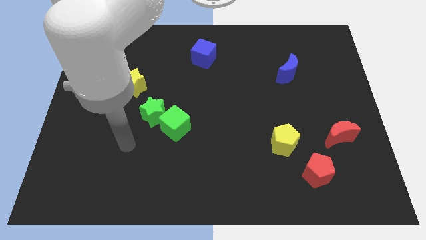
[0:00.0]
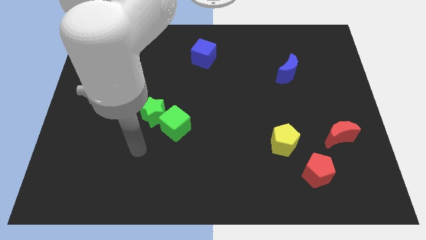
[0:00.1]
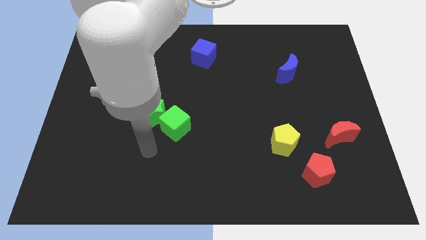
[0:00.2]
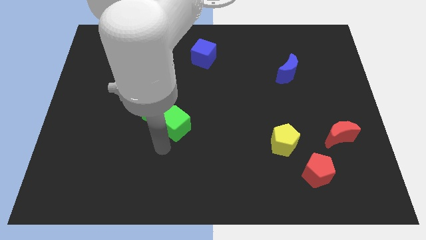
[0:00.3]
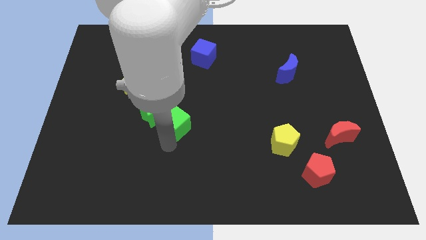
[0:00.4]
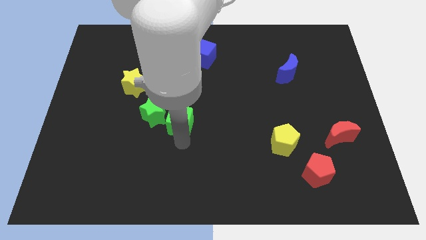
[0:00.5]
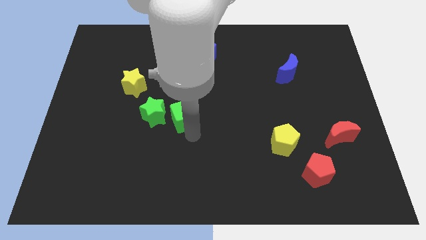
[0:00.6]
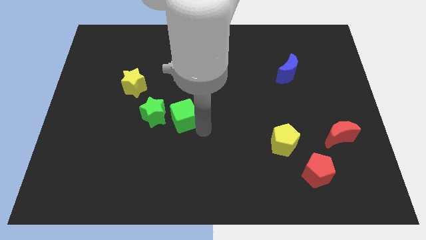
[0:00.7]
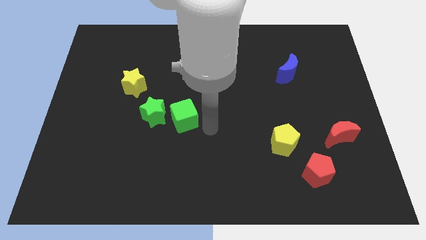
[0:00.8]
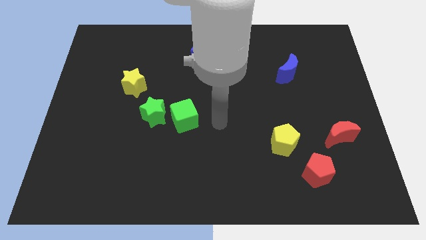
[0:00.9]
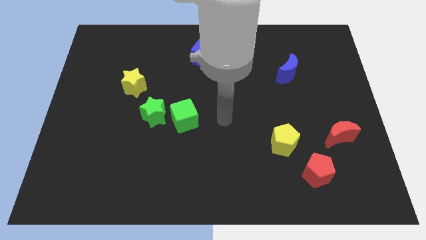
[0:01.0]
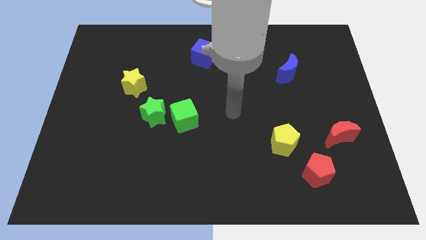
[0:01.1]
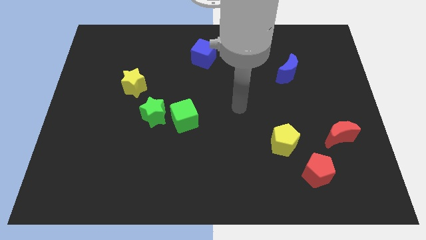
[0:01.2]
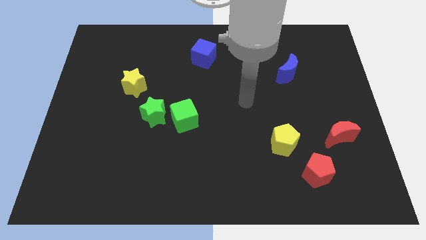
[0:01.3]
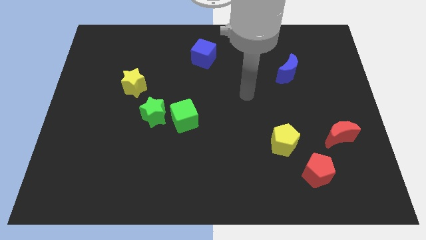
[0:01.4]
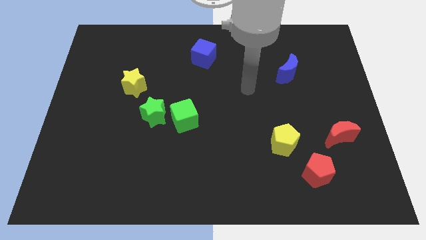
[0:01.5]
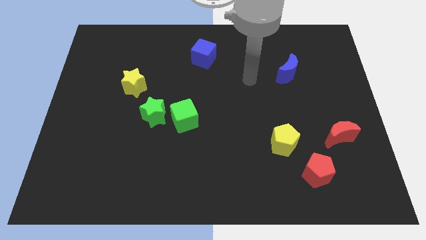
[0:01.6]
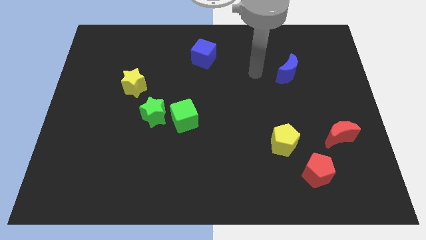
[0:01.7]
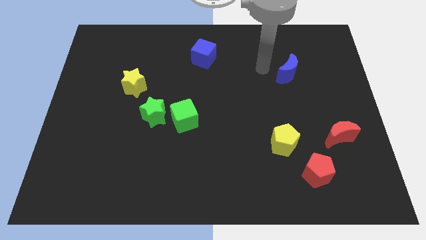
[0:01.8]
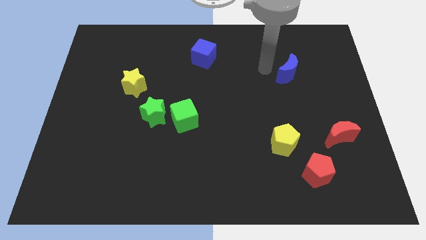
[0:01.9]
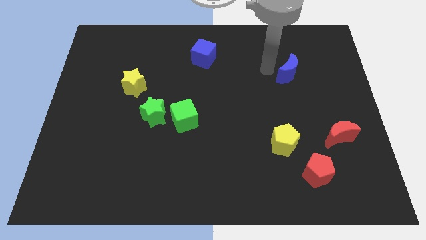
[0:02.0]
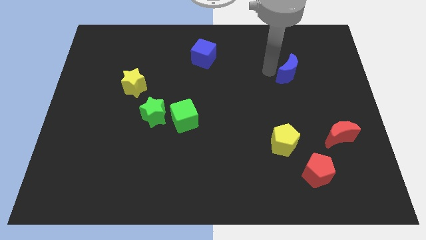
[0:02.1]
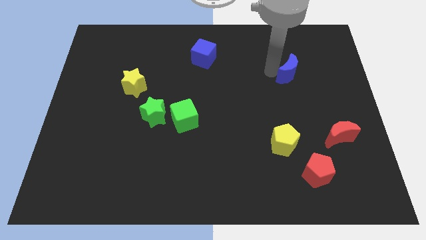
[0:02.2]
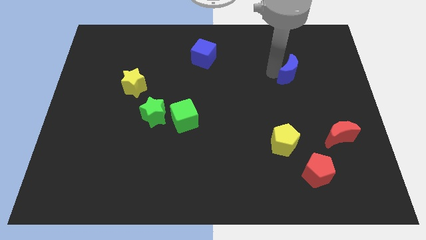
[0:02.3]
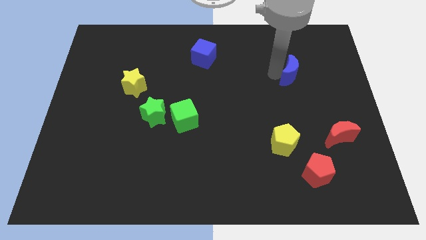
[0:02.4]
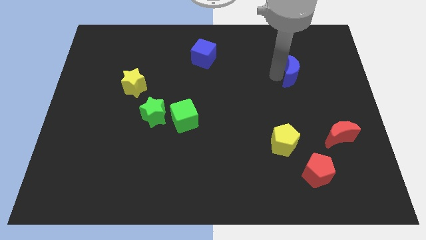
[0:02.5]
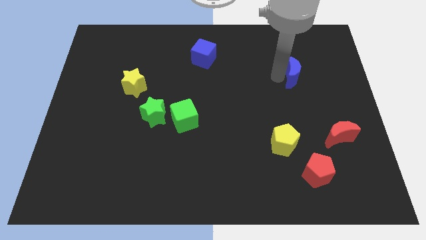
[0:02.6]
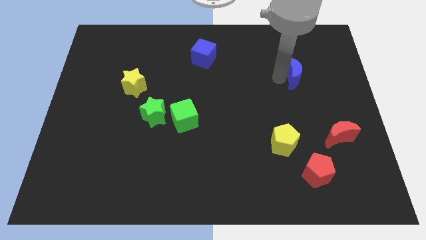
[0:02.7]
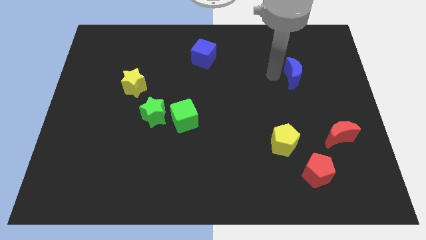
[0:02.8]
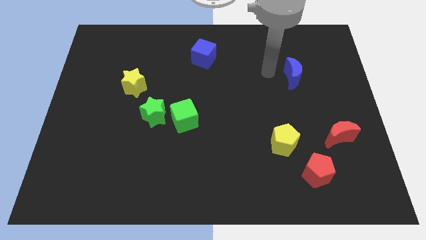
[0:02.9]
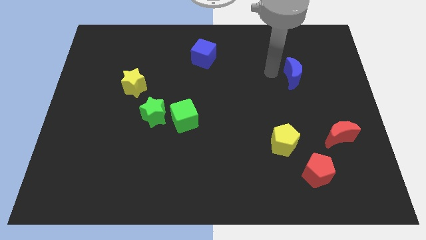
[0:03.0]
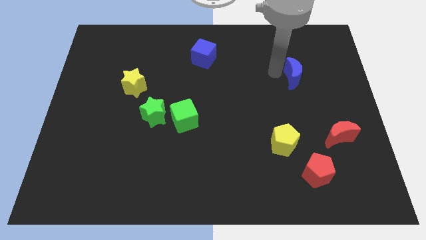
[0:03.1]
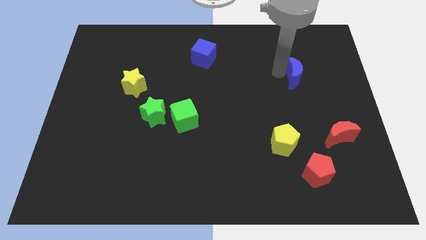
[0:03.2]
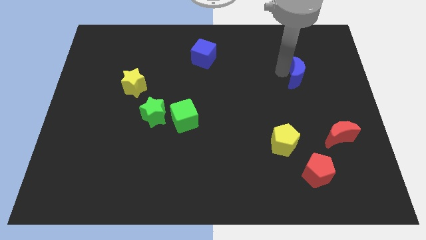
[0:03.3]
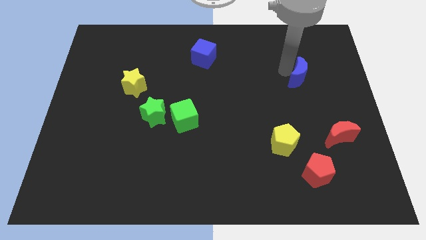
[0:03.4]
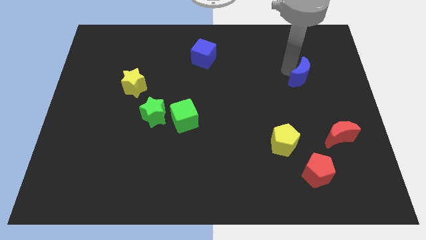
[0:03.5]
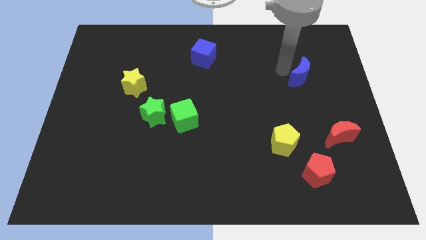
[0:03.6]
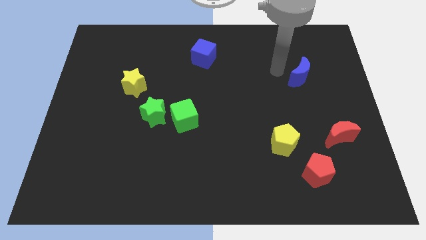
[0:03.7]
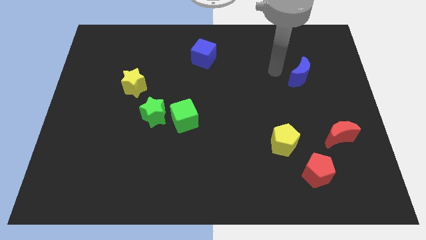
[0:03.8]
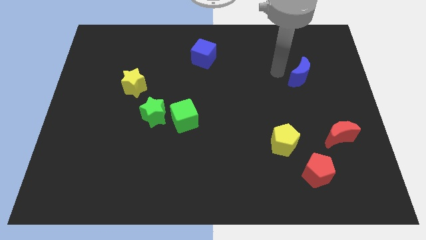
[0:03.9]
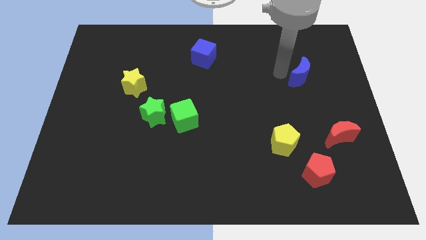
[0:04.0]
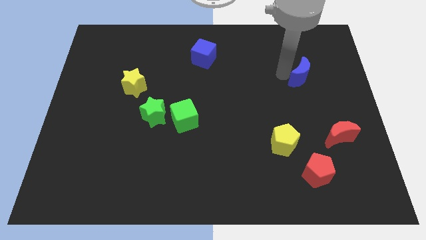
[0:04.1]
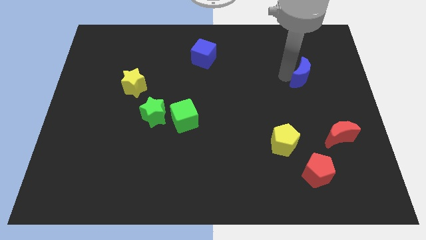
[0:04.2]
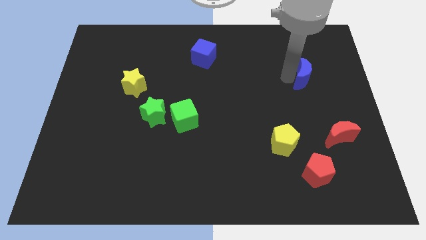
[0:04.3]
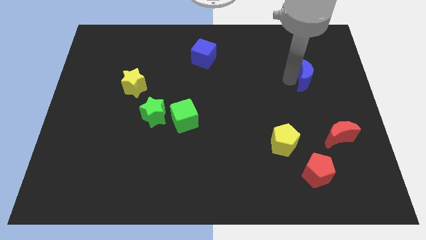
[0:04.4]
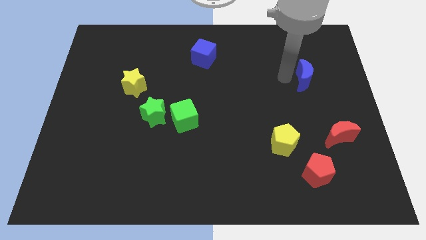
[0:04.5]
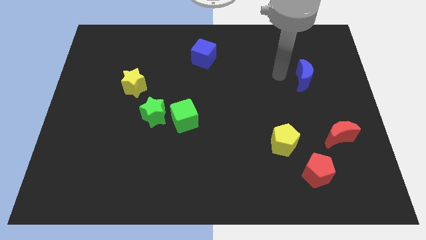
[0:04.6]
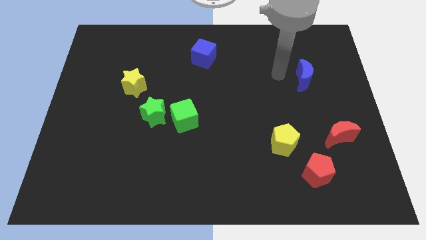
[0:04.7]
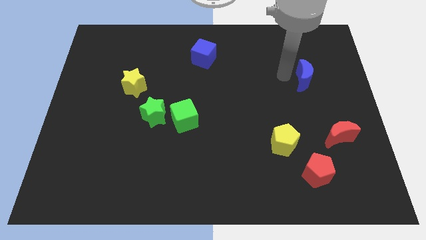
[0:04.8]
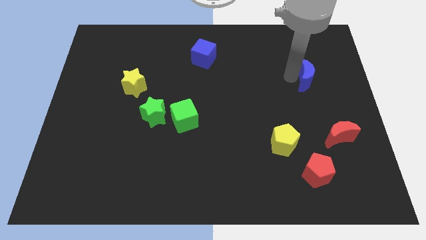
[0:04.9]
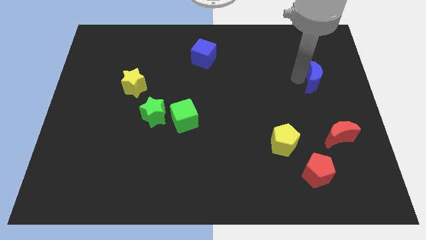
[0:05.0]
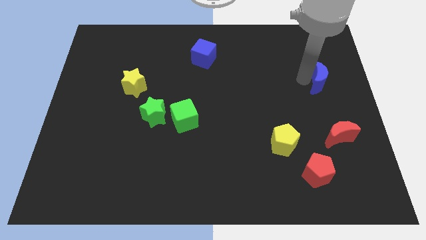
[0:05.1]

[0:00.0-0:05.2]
put the blue moon to the right side

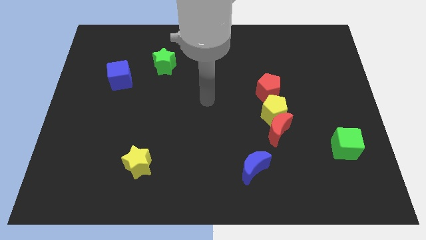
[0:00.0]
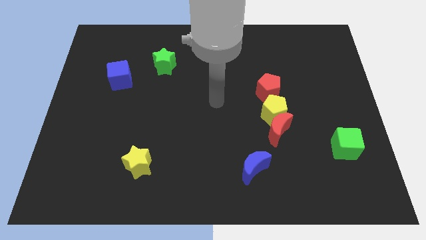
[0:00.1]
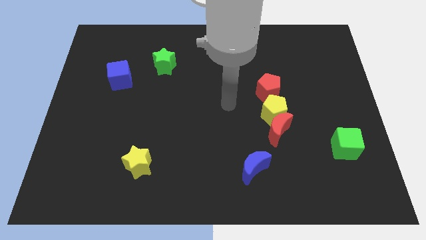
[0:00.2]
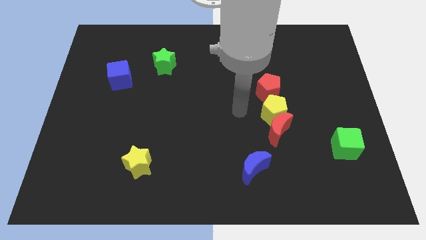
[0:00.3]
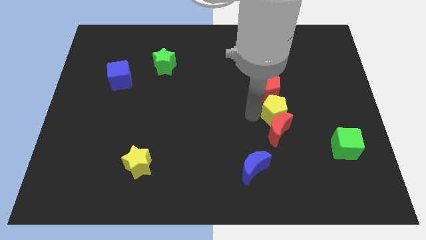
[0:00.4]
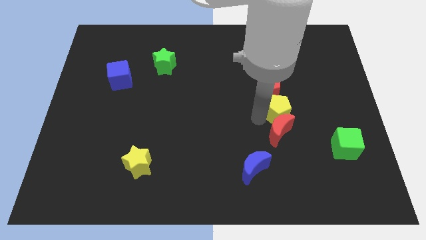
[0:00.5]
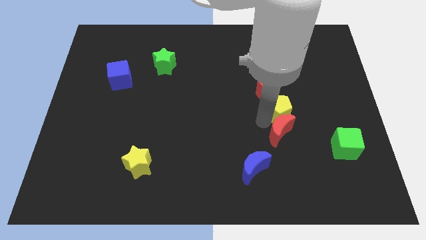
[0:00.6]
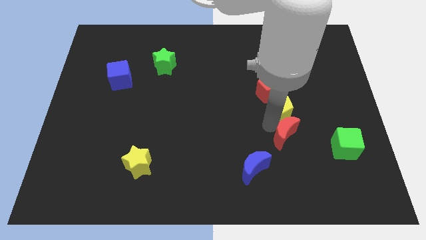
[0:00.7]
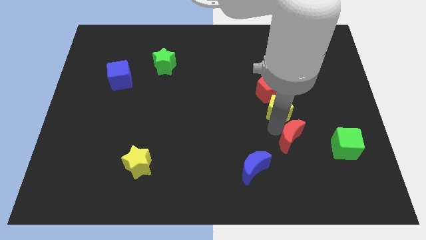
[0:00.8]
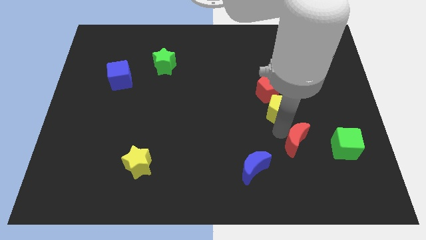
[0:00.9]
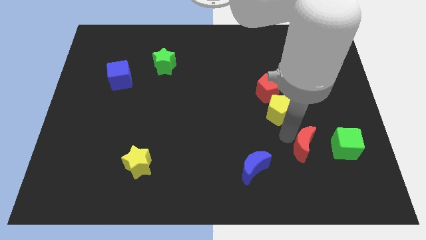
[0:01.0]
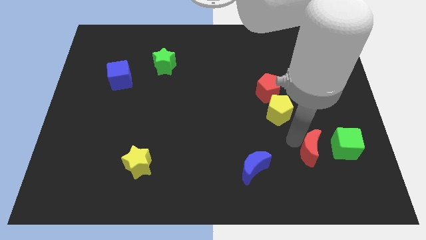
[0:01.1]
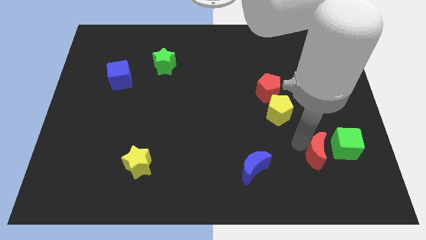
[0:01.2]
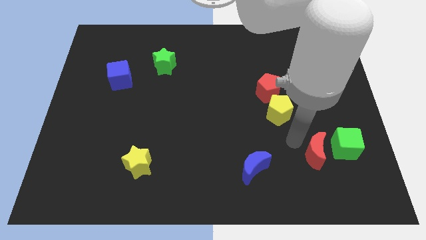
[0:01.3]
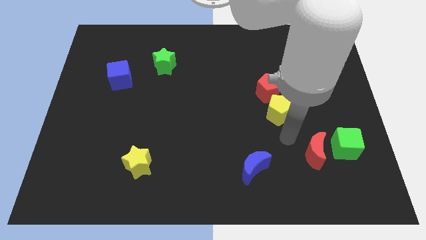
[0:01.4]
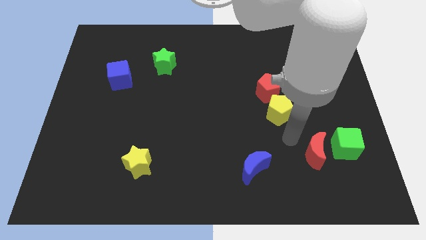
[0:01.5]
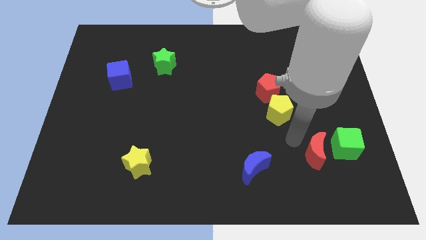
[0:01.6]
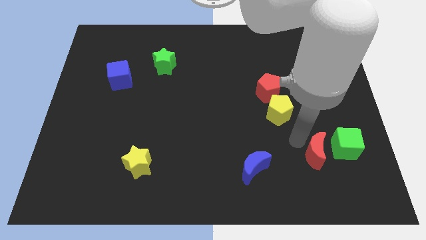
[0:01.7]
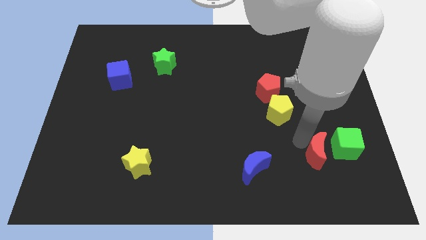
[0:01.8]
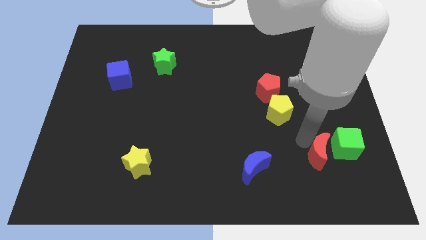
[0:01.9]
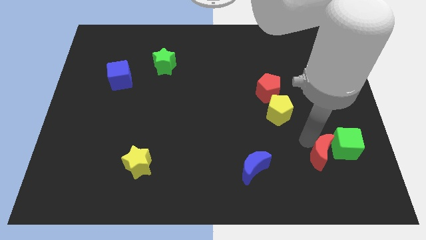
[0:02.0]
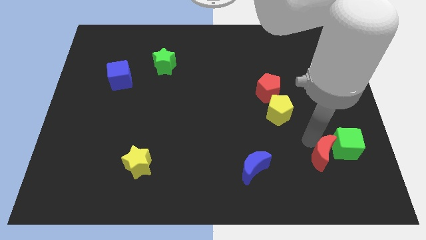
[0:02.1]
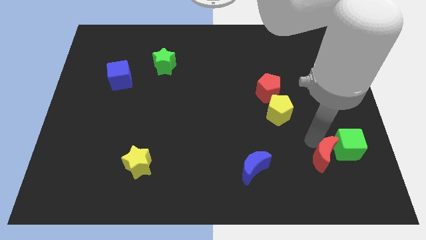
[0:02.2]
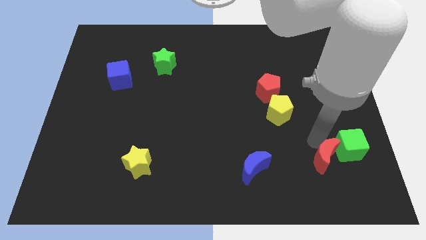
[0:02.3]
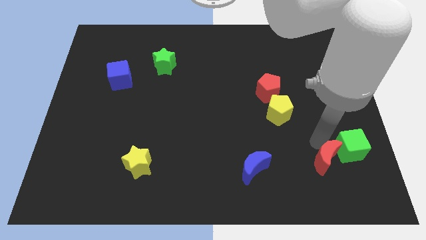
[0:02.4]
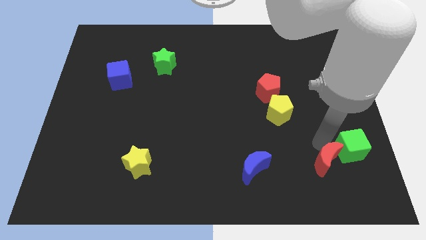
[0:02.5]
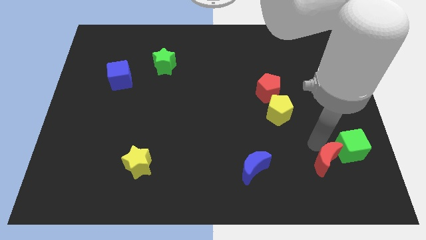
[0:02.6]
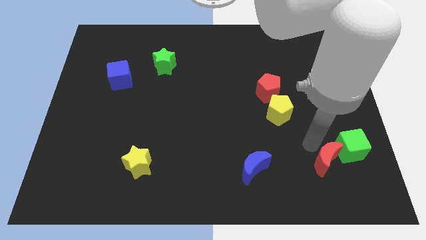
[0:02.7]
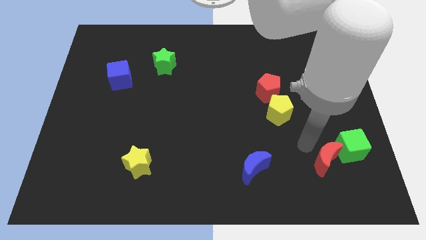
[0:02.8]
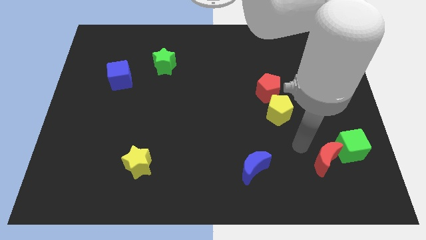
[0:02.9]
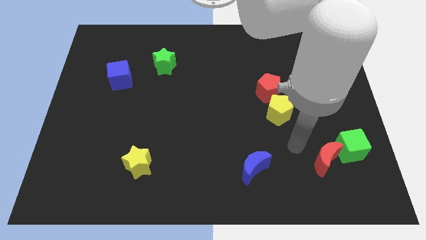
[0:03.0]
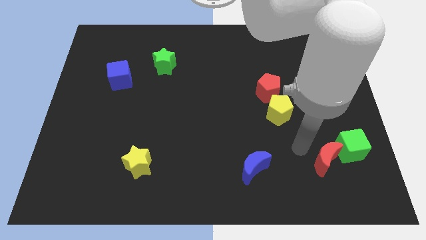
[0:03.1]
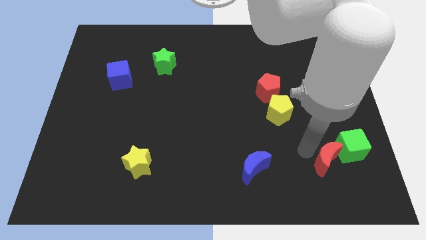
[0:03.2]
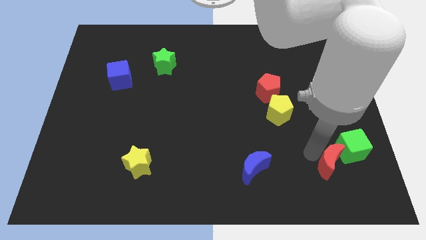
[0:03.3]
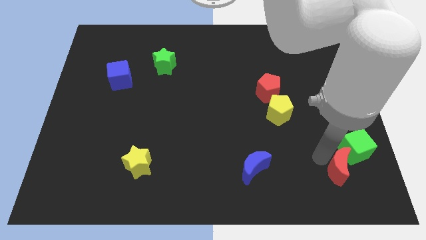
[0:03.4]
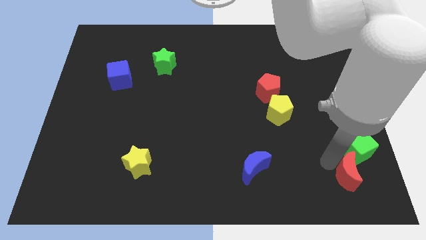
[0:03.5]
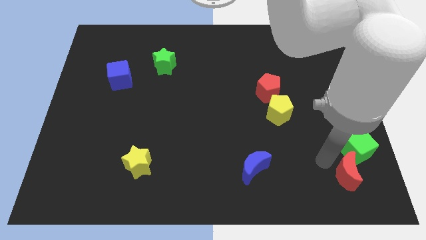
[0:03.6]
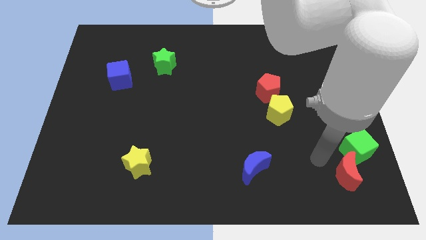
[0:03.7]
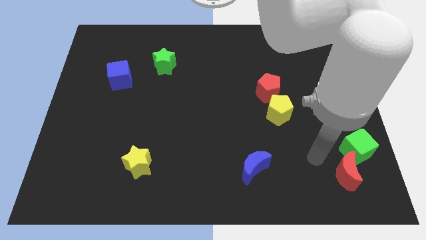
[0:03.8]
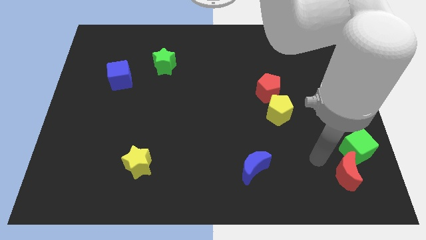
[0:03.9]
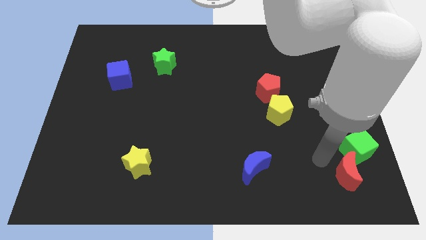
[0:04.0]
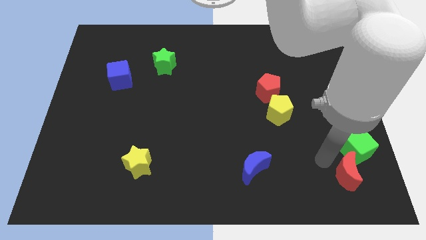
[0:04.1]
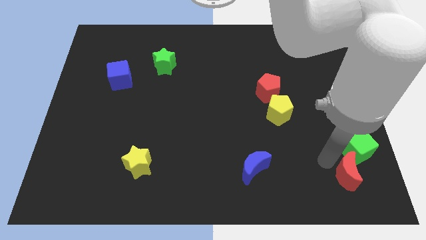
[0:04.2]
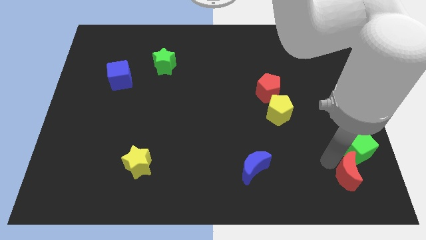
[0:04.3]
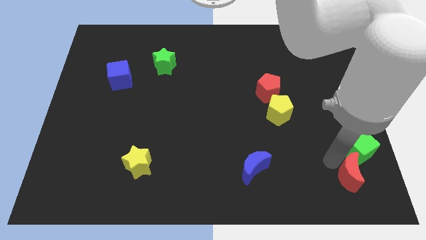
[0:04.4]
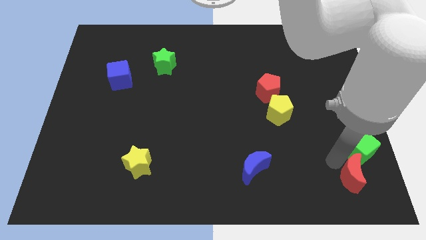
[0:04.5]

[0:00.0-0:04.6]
push the red moon to the bottom right corner
